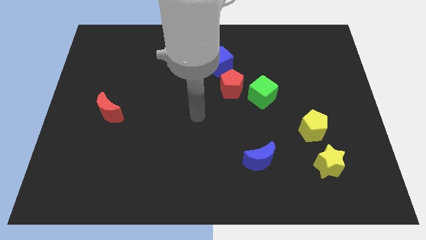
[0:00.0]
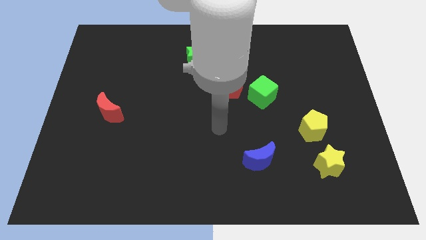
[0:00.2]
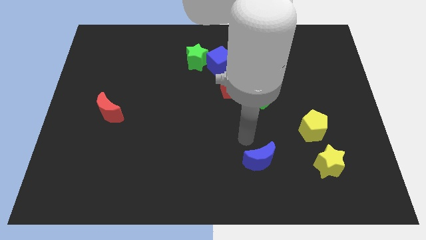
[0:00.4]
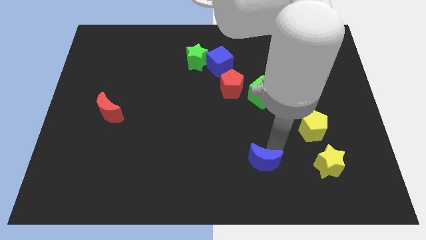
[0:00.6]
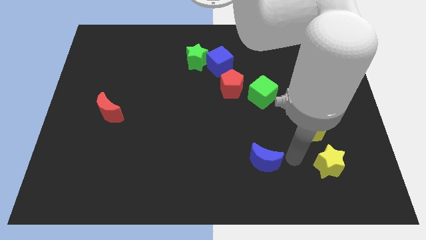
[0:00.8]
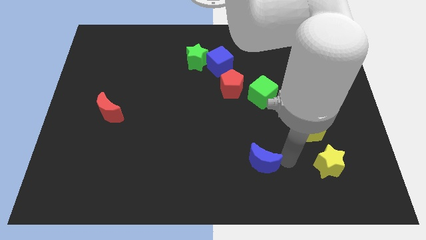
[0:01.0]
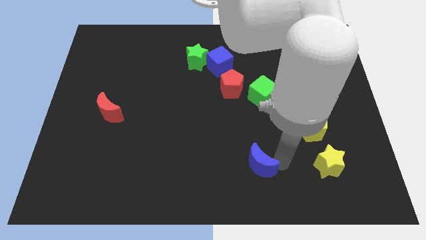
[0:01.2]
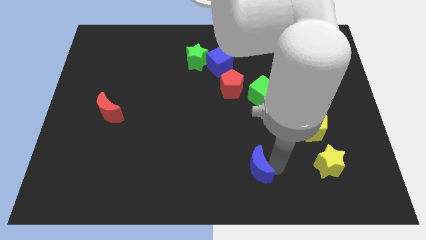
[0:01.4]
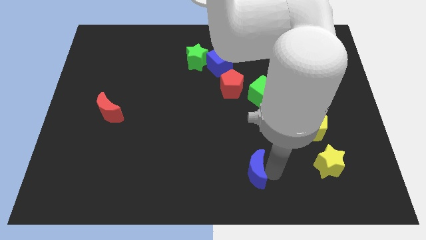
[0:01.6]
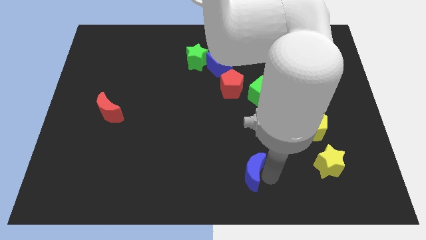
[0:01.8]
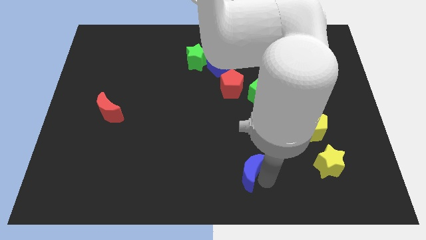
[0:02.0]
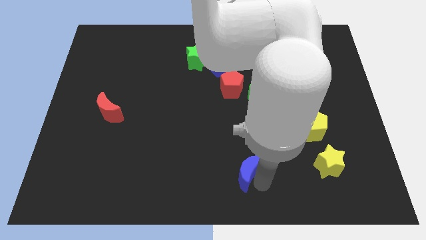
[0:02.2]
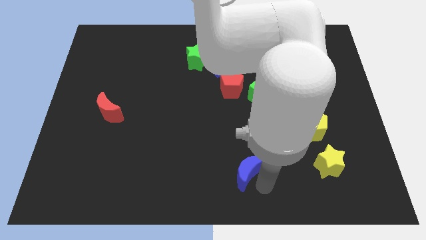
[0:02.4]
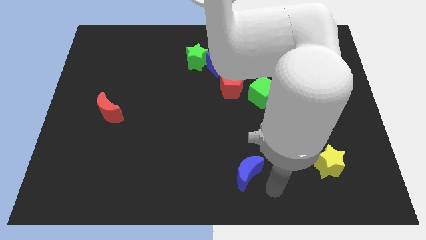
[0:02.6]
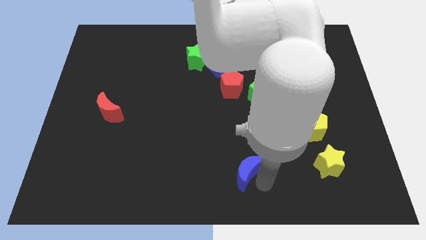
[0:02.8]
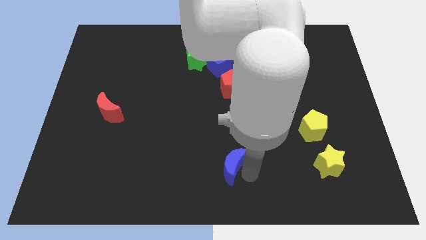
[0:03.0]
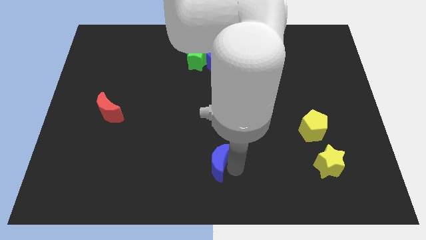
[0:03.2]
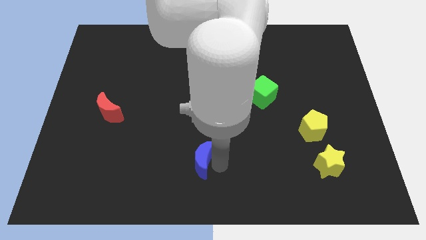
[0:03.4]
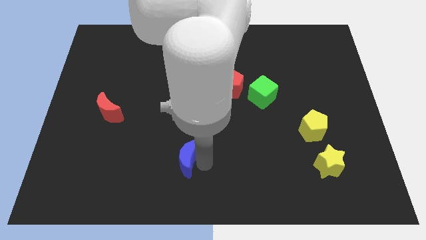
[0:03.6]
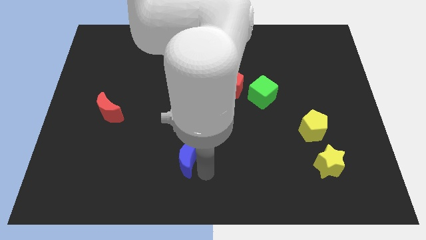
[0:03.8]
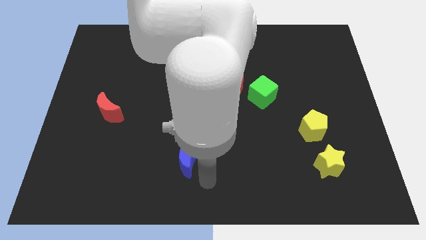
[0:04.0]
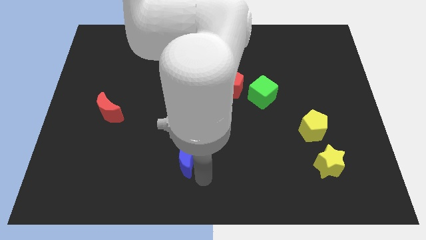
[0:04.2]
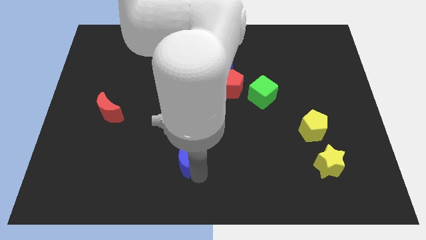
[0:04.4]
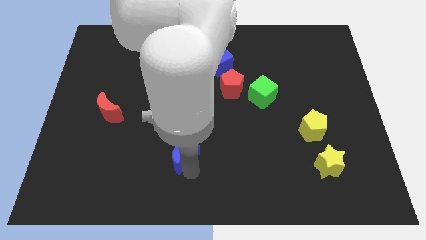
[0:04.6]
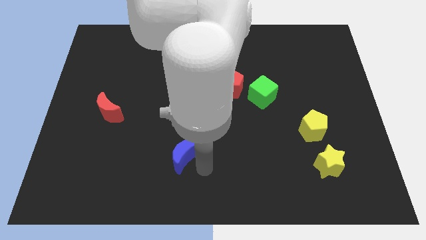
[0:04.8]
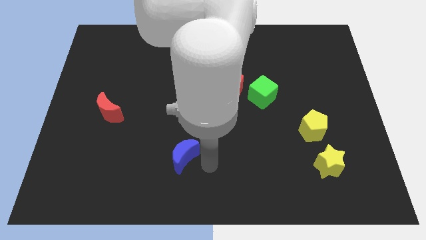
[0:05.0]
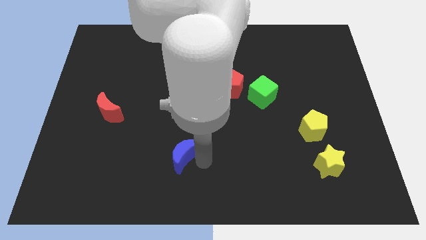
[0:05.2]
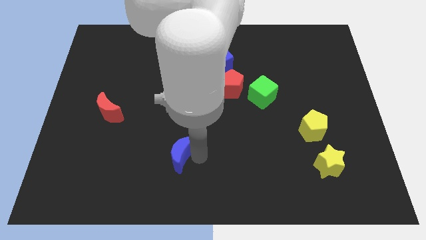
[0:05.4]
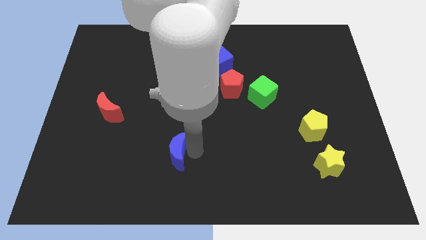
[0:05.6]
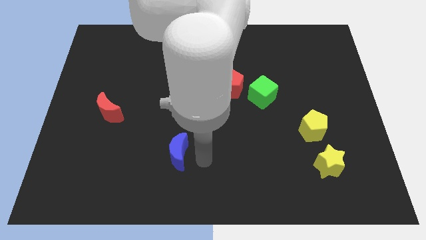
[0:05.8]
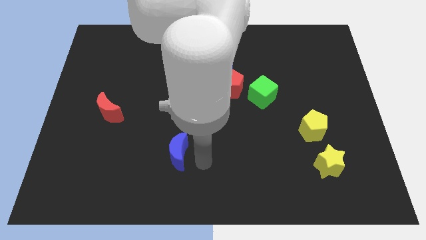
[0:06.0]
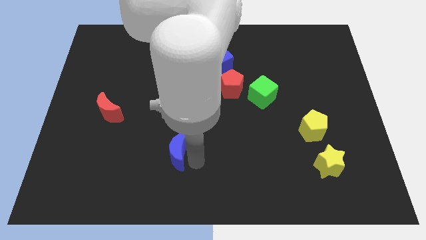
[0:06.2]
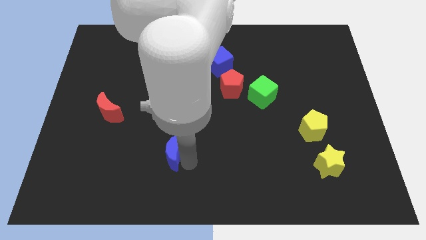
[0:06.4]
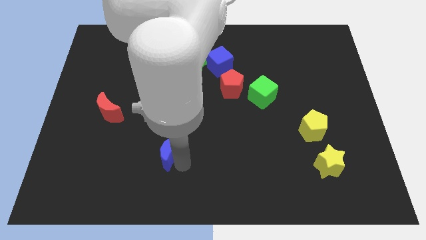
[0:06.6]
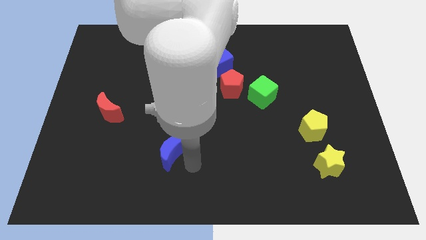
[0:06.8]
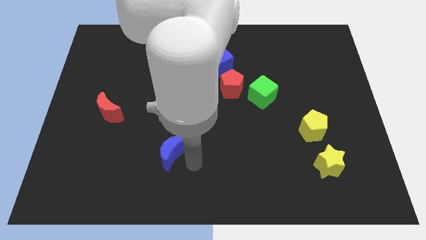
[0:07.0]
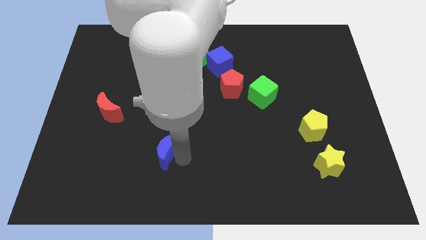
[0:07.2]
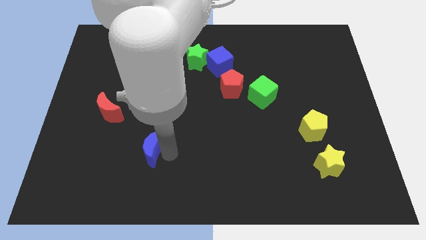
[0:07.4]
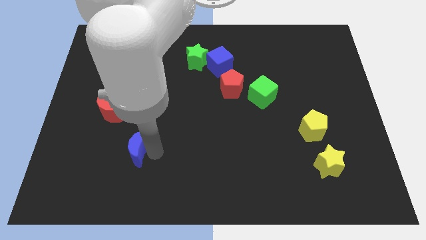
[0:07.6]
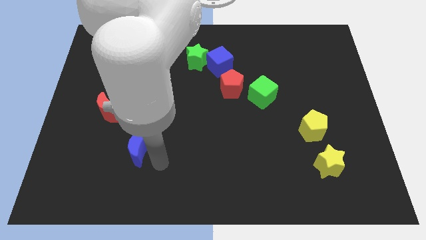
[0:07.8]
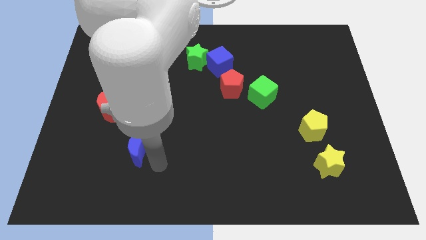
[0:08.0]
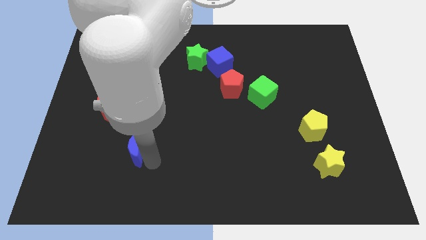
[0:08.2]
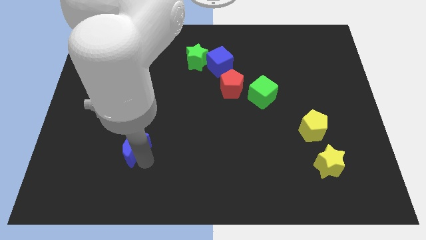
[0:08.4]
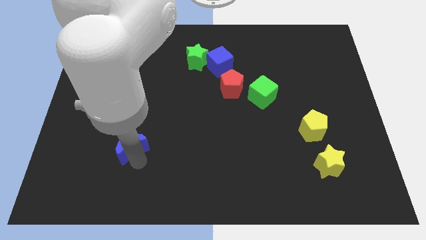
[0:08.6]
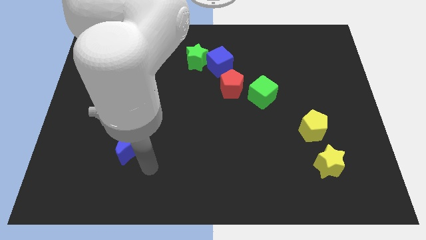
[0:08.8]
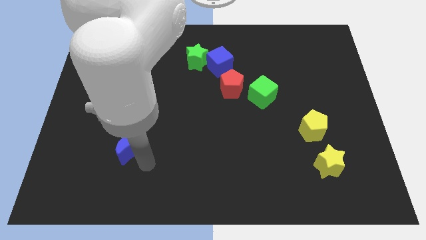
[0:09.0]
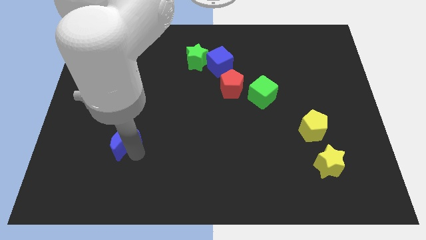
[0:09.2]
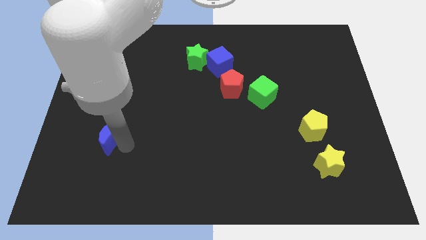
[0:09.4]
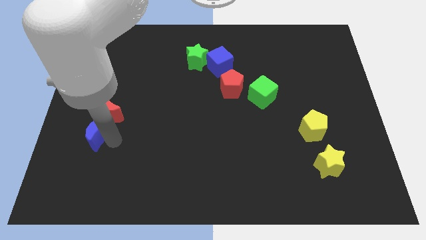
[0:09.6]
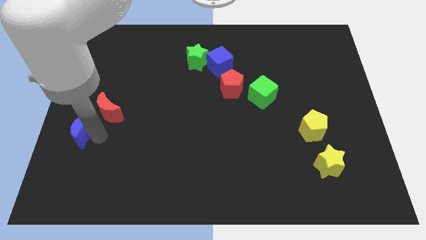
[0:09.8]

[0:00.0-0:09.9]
move the blue moon to the left side of the board

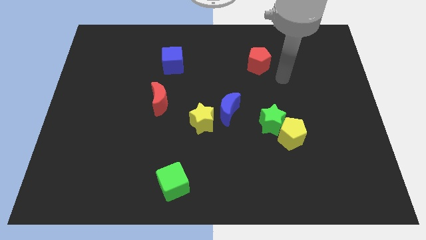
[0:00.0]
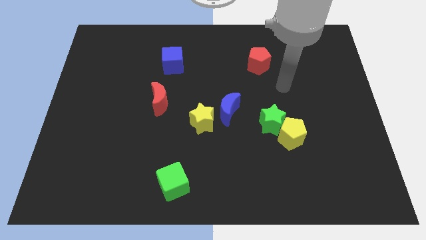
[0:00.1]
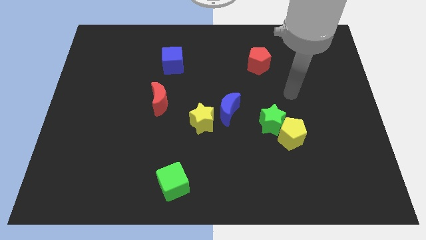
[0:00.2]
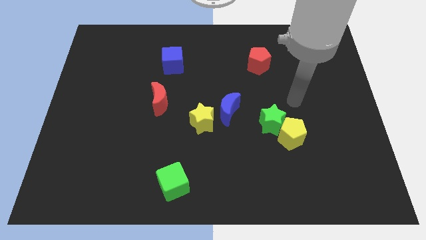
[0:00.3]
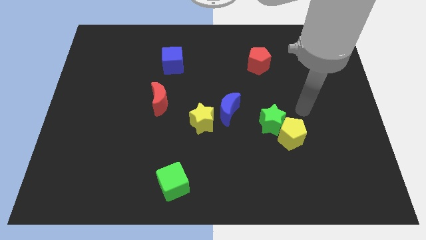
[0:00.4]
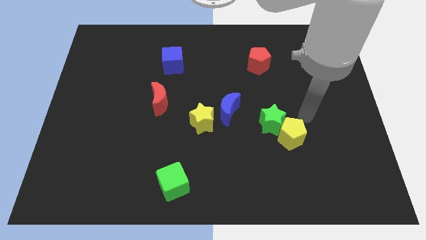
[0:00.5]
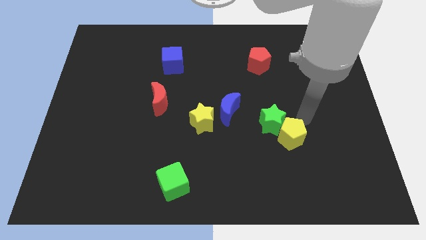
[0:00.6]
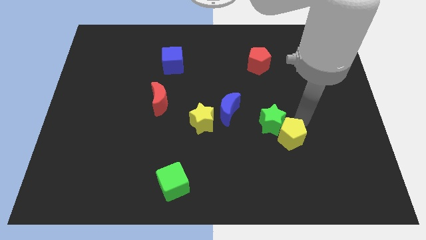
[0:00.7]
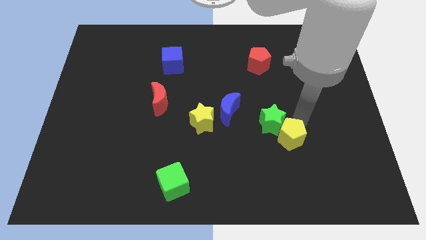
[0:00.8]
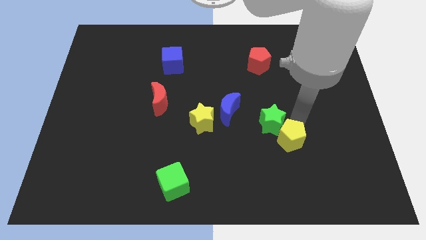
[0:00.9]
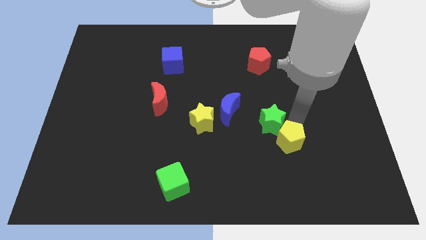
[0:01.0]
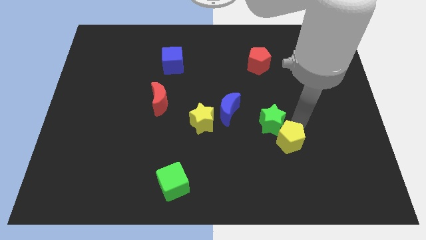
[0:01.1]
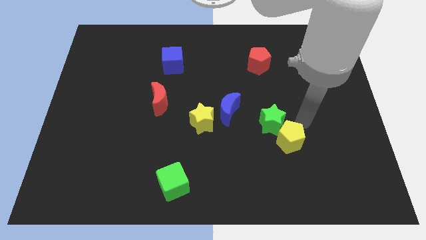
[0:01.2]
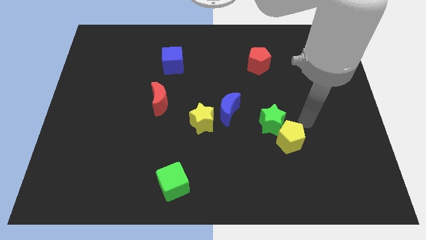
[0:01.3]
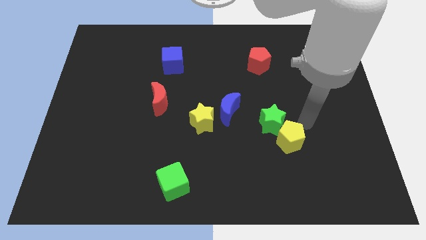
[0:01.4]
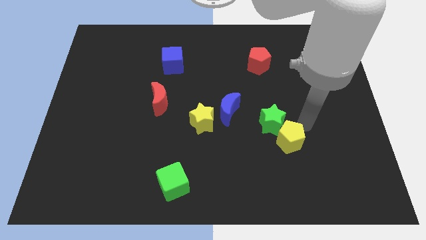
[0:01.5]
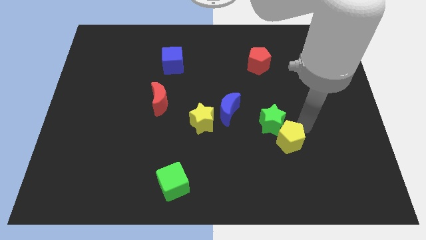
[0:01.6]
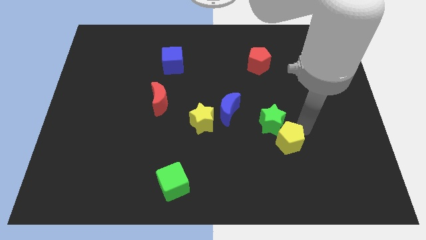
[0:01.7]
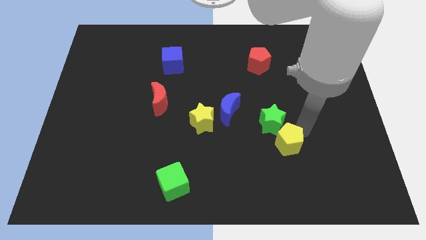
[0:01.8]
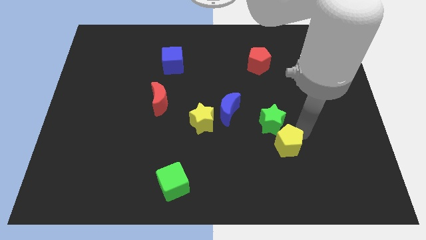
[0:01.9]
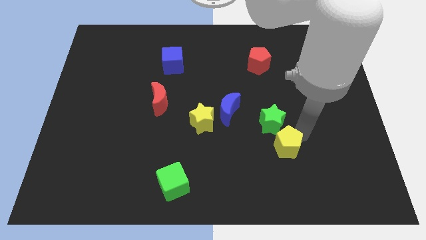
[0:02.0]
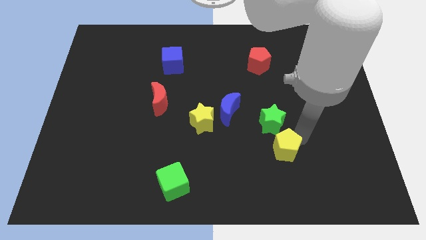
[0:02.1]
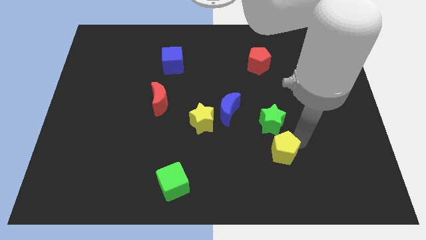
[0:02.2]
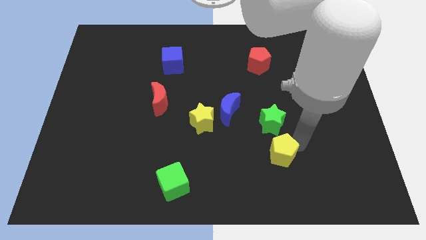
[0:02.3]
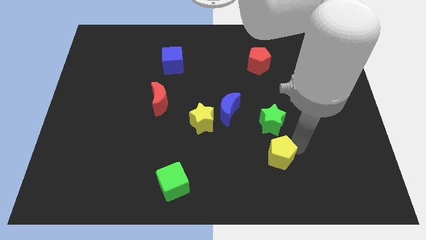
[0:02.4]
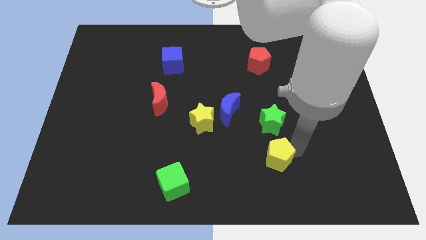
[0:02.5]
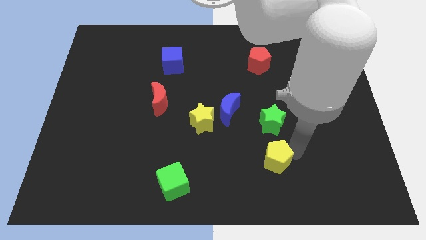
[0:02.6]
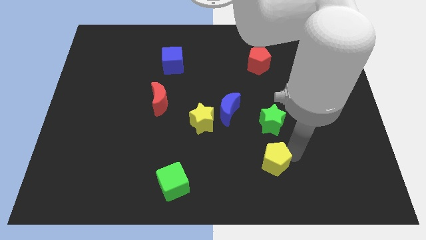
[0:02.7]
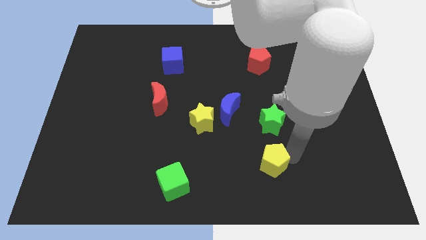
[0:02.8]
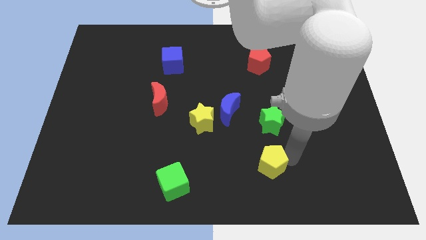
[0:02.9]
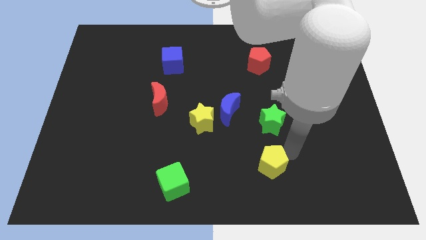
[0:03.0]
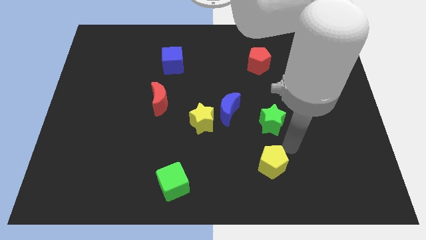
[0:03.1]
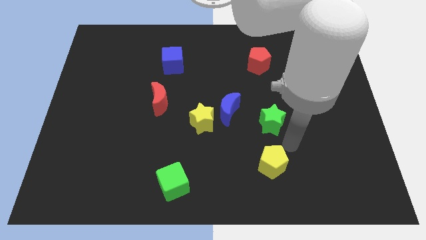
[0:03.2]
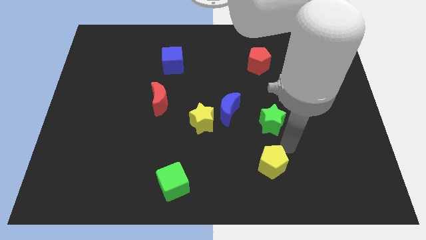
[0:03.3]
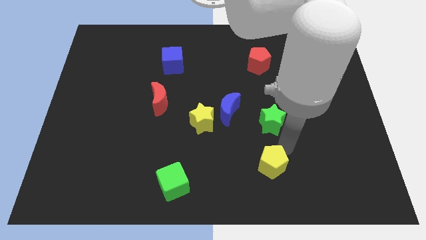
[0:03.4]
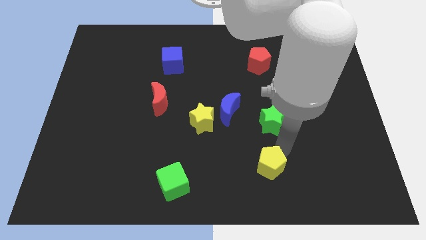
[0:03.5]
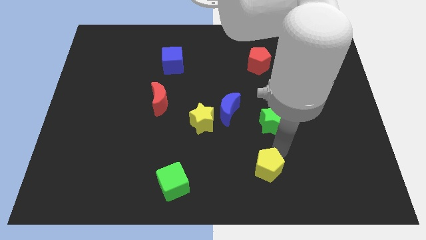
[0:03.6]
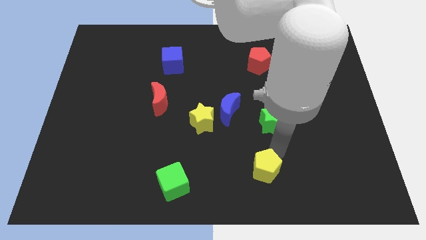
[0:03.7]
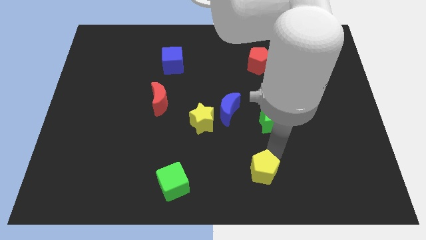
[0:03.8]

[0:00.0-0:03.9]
push the yellow pentagon to the bottom side
